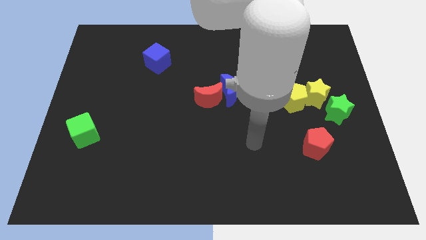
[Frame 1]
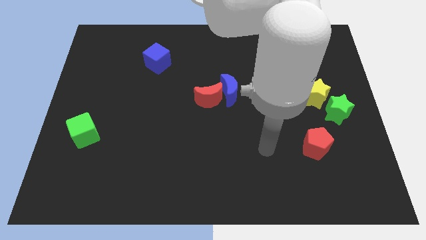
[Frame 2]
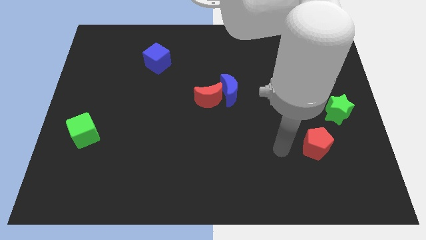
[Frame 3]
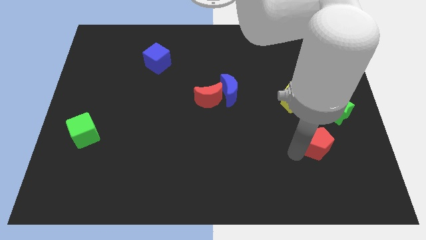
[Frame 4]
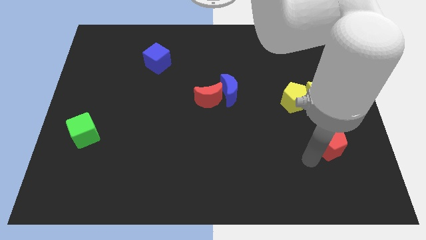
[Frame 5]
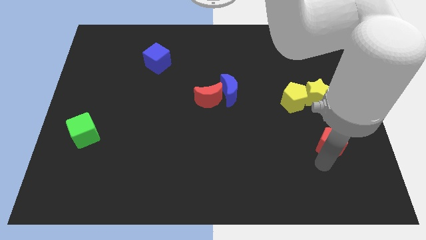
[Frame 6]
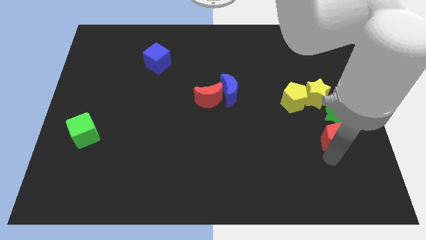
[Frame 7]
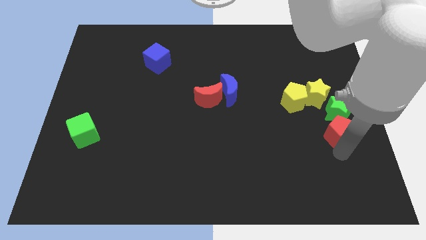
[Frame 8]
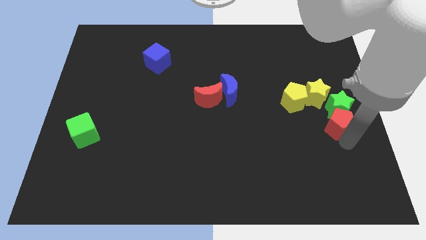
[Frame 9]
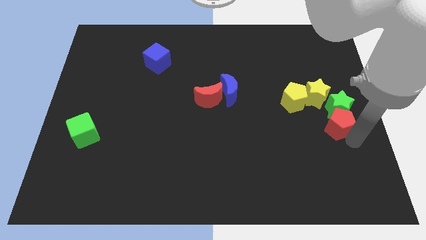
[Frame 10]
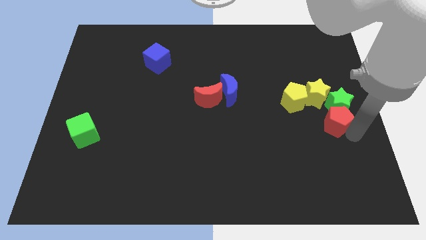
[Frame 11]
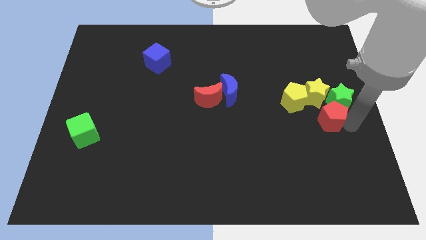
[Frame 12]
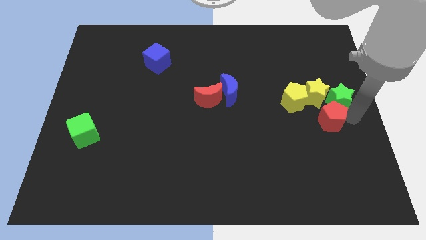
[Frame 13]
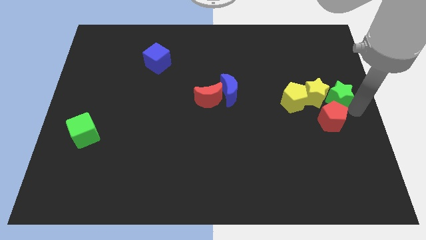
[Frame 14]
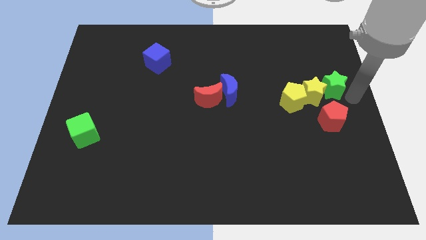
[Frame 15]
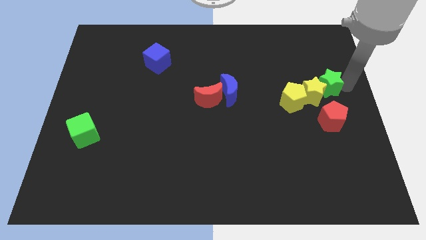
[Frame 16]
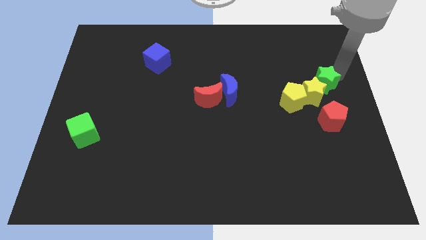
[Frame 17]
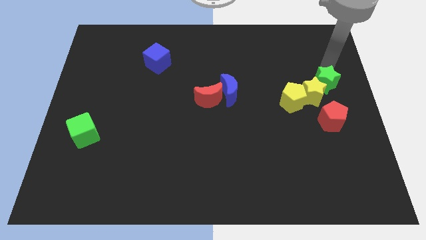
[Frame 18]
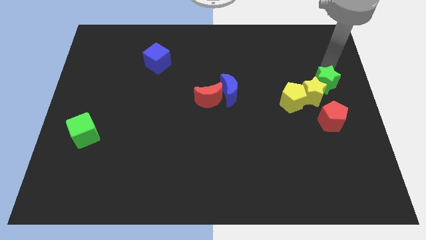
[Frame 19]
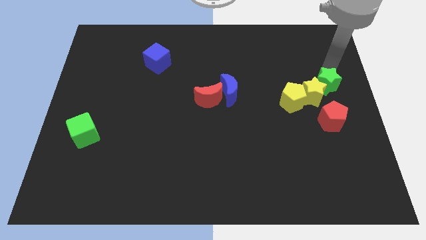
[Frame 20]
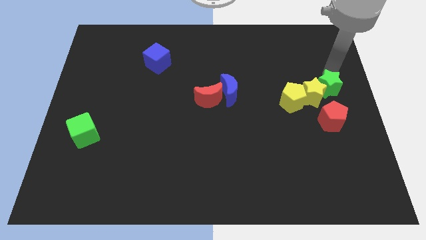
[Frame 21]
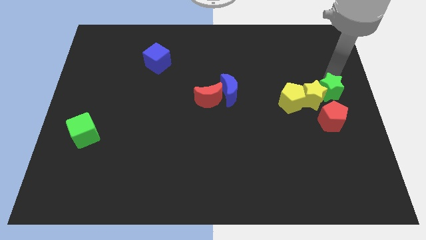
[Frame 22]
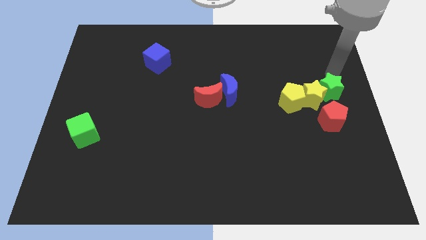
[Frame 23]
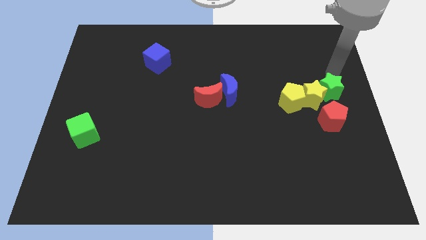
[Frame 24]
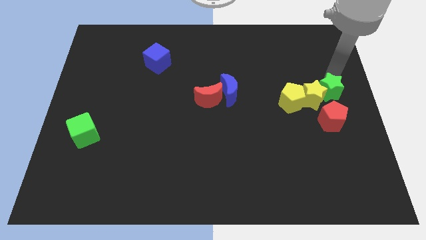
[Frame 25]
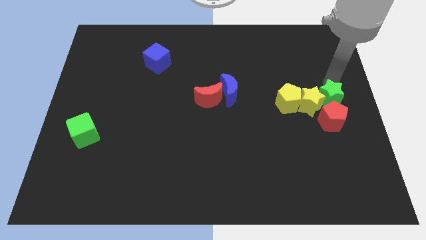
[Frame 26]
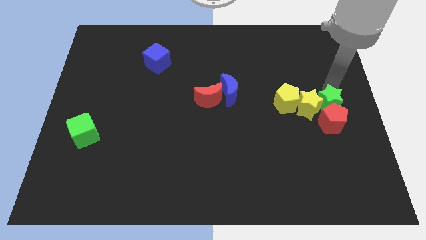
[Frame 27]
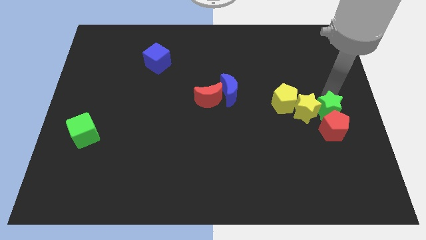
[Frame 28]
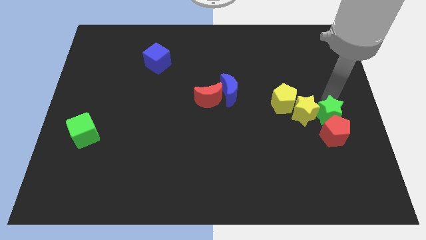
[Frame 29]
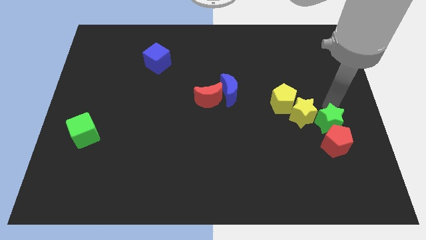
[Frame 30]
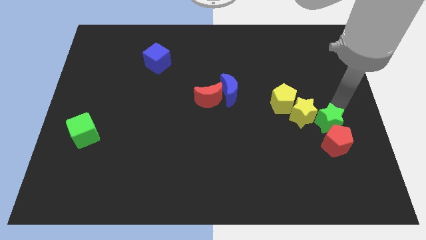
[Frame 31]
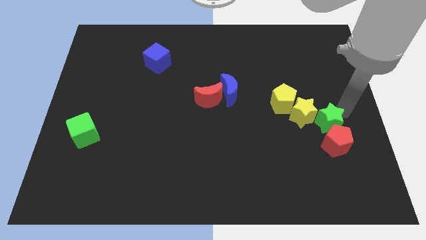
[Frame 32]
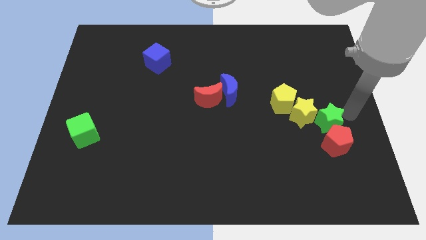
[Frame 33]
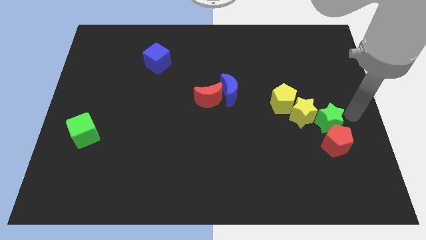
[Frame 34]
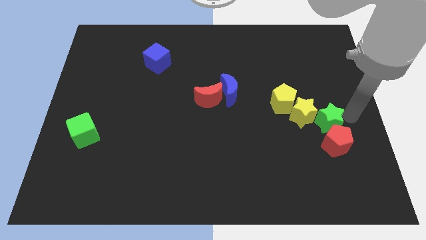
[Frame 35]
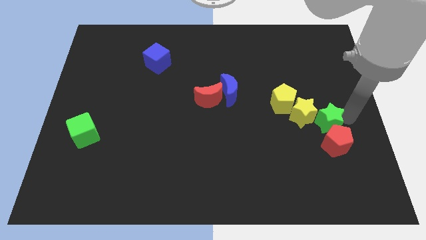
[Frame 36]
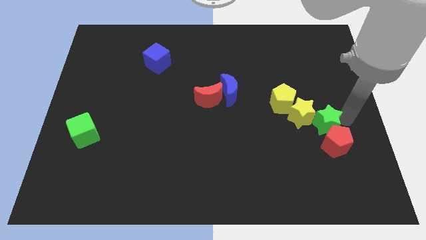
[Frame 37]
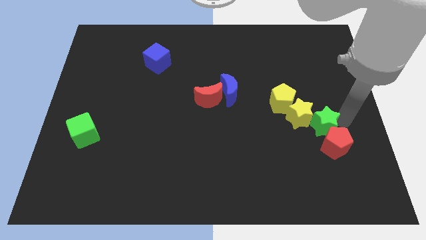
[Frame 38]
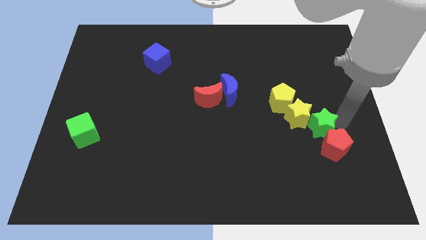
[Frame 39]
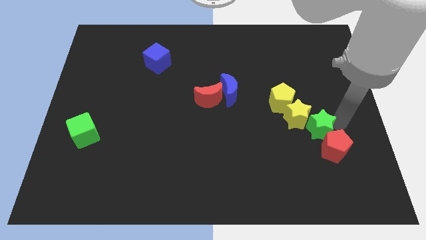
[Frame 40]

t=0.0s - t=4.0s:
push the green star down and left slightly

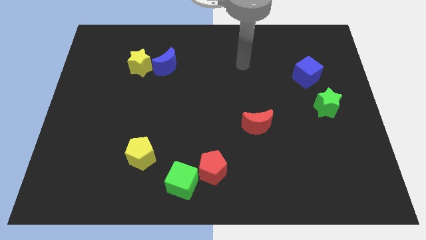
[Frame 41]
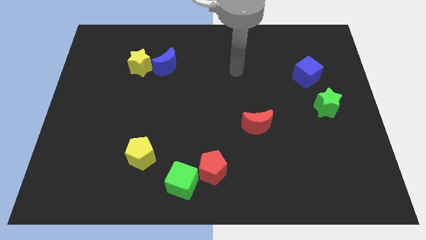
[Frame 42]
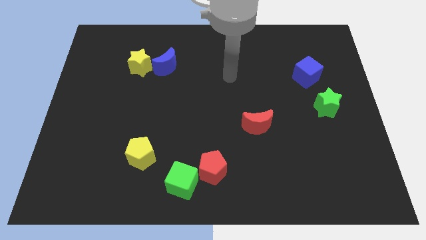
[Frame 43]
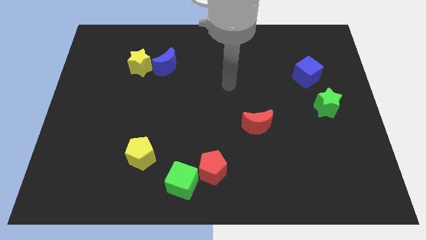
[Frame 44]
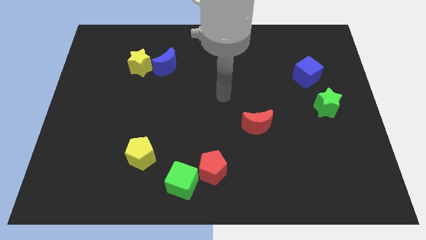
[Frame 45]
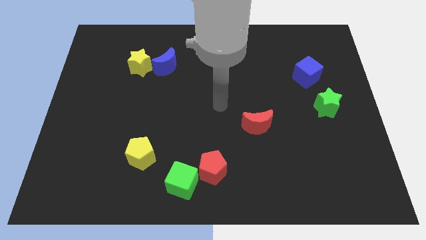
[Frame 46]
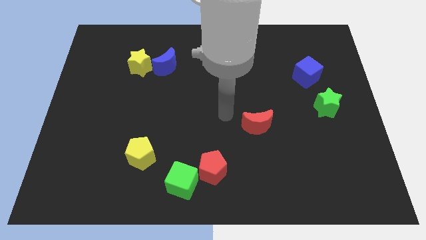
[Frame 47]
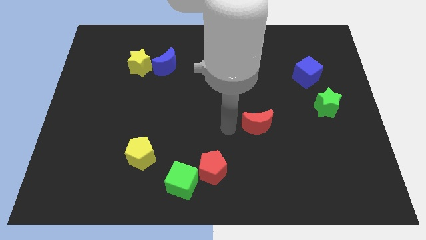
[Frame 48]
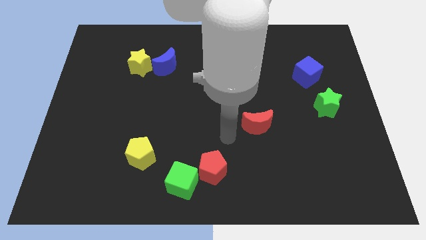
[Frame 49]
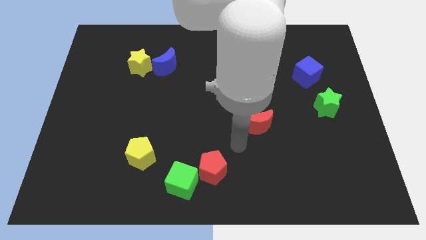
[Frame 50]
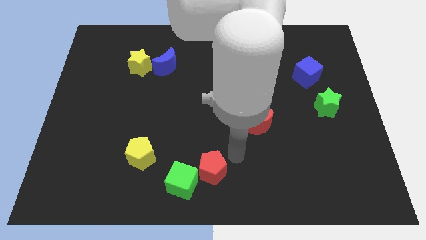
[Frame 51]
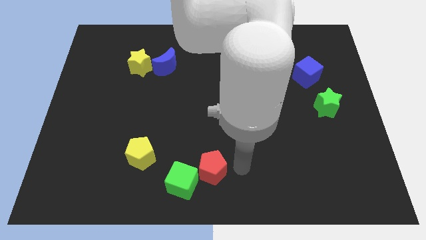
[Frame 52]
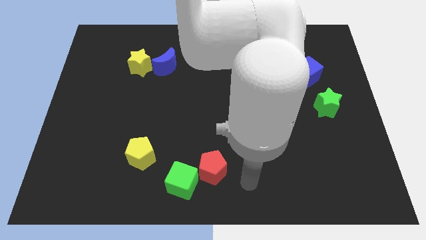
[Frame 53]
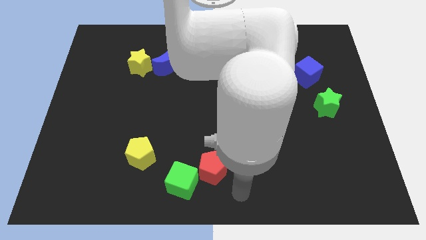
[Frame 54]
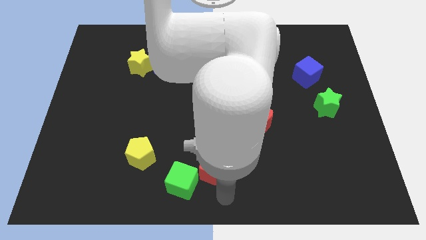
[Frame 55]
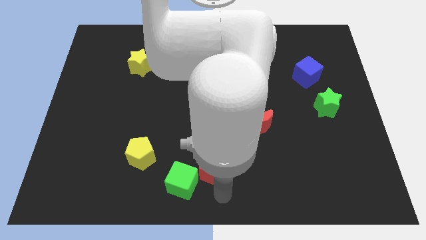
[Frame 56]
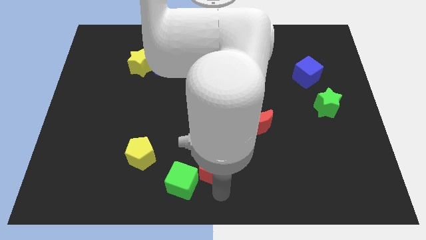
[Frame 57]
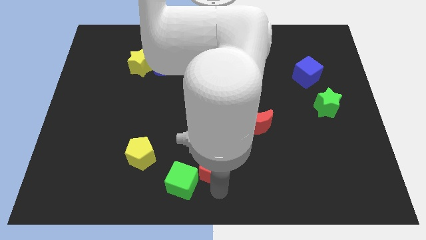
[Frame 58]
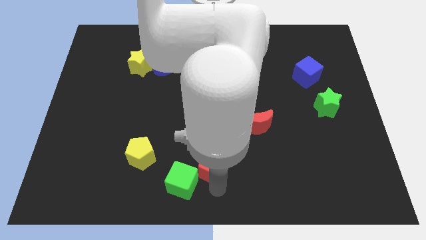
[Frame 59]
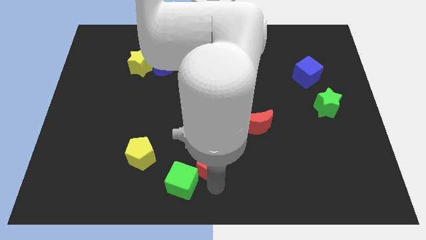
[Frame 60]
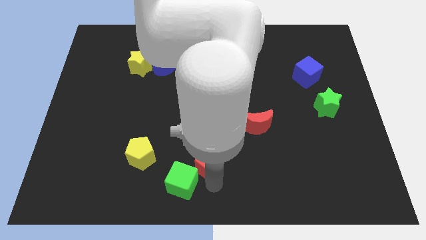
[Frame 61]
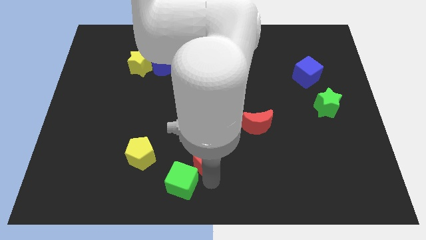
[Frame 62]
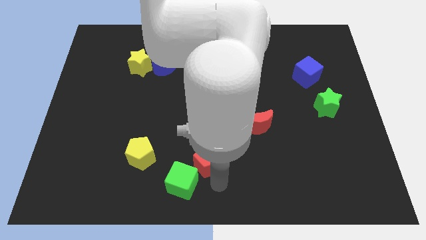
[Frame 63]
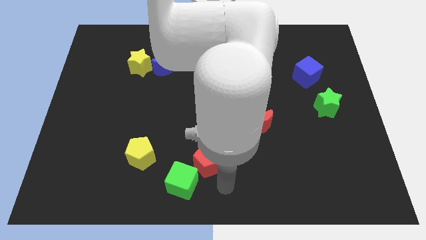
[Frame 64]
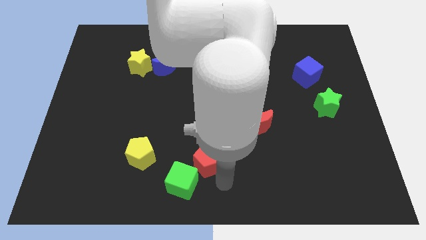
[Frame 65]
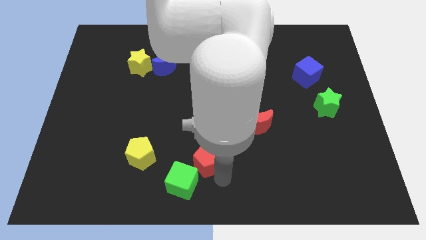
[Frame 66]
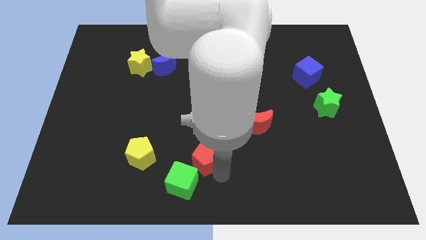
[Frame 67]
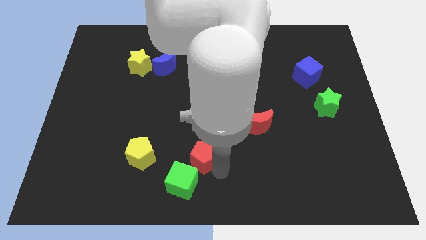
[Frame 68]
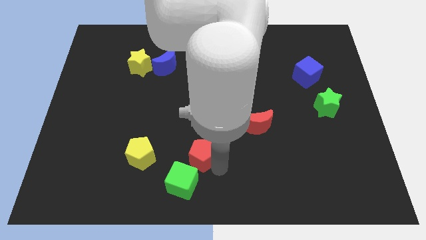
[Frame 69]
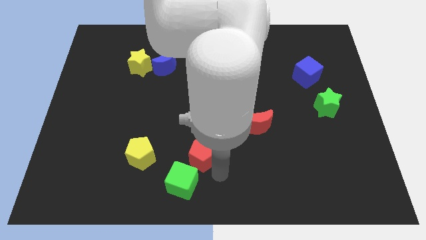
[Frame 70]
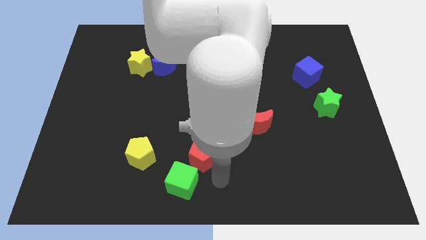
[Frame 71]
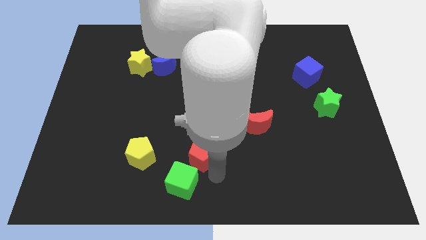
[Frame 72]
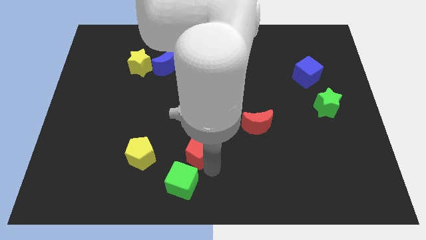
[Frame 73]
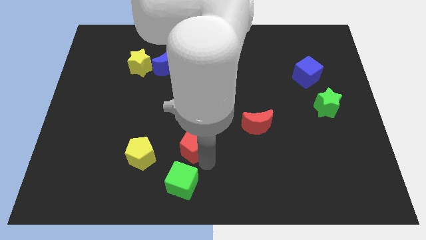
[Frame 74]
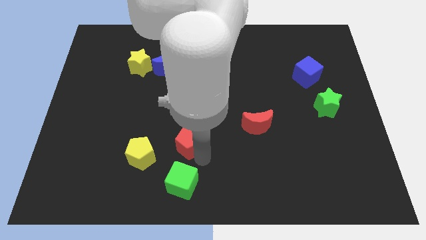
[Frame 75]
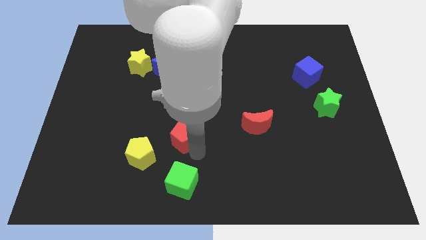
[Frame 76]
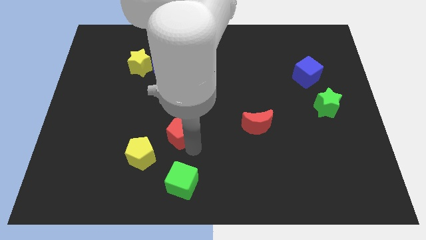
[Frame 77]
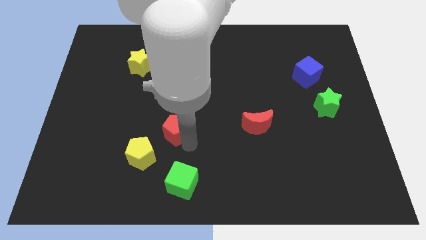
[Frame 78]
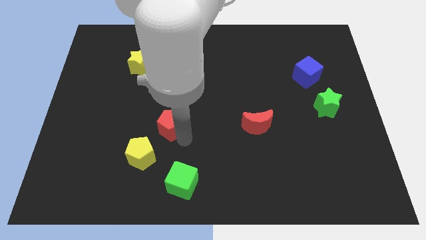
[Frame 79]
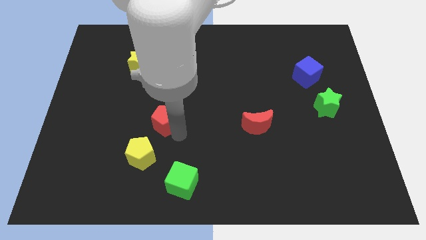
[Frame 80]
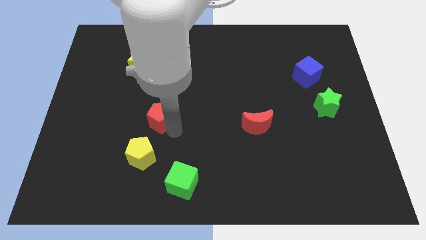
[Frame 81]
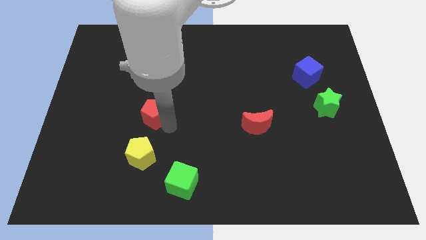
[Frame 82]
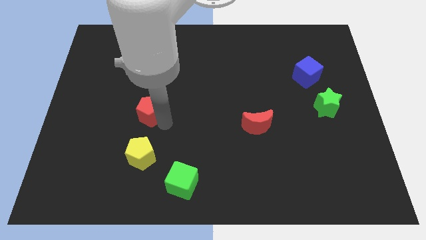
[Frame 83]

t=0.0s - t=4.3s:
push the red pentagon upwards and then left
